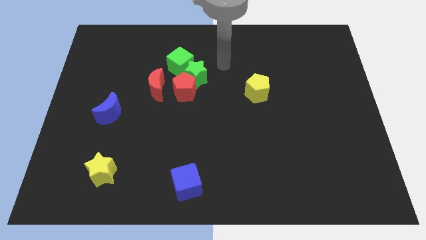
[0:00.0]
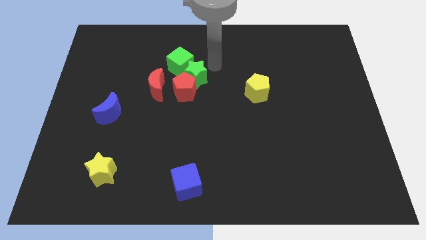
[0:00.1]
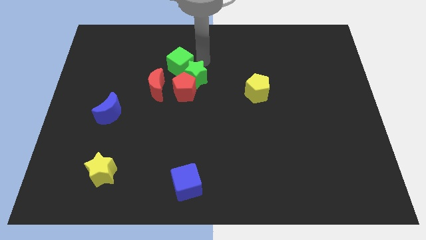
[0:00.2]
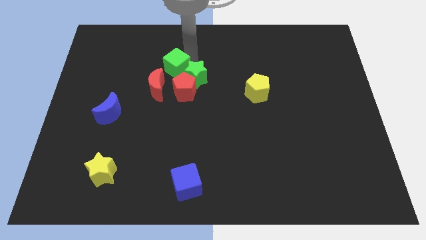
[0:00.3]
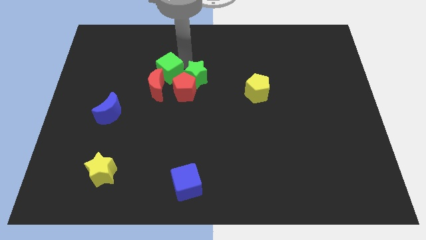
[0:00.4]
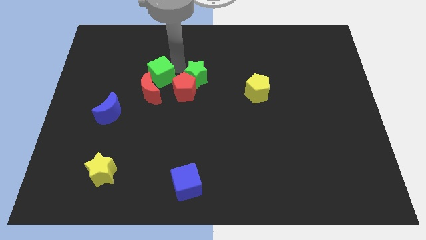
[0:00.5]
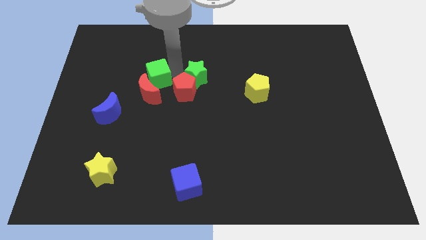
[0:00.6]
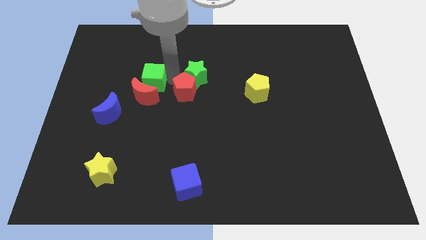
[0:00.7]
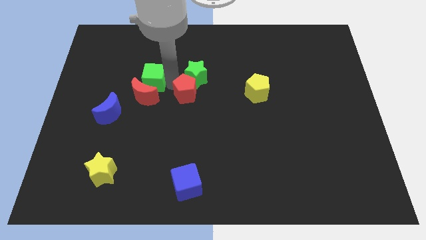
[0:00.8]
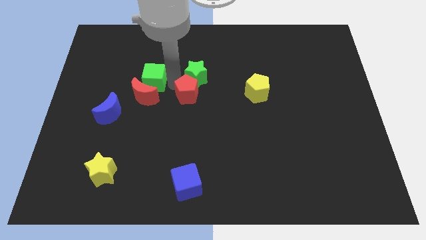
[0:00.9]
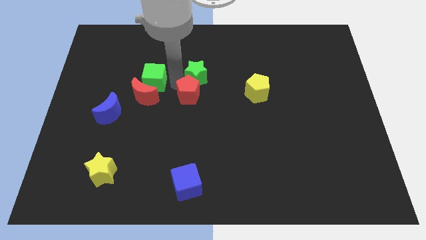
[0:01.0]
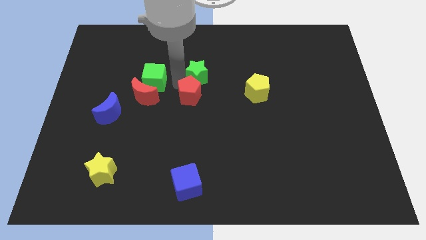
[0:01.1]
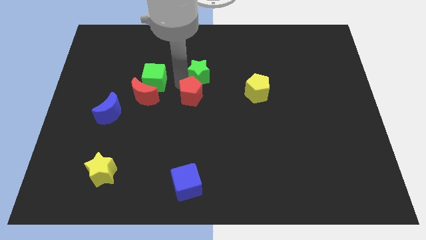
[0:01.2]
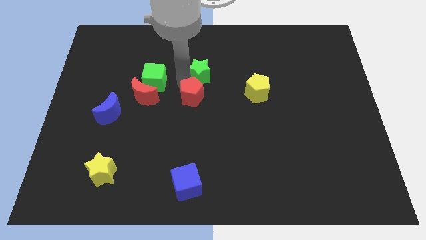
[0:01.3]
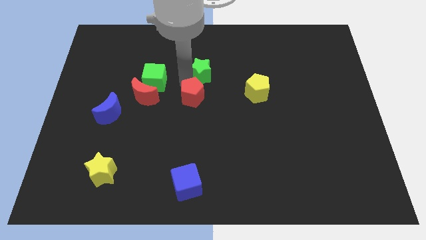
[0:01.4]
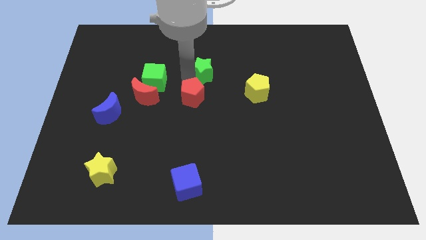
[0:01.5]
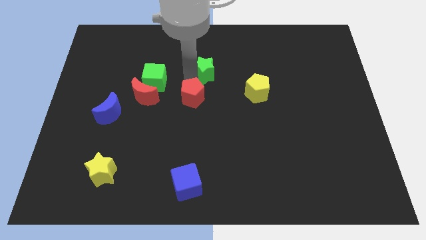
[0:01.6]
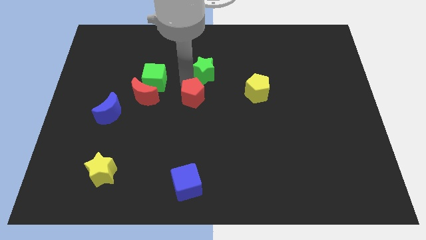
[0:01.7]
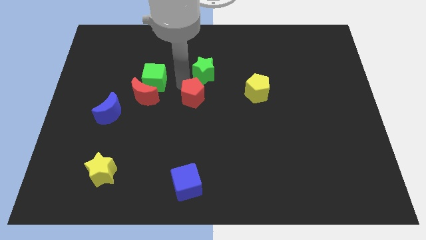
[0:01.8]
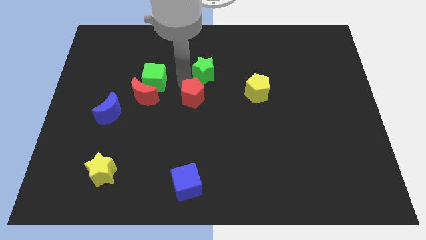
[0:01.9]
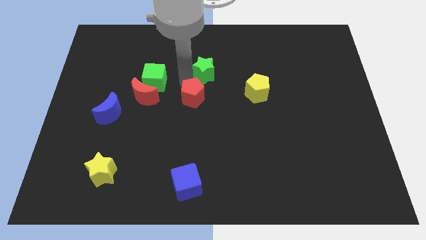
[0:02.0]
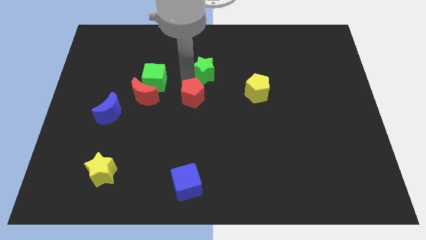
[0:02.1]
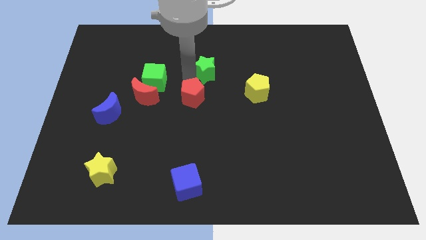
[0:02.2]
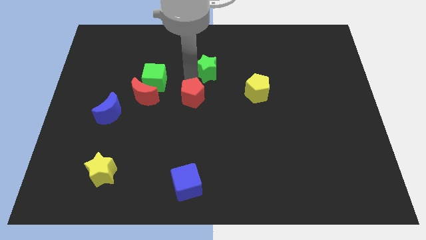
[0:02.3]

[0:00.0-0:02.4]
move the green star away from the red pentagon and green cube

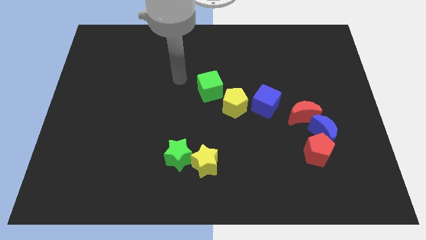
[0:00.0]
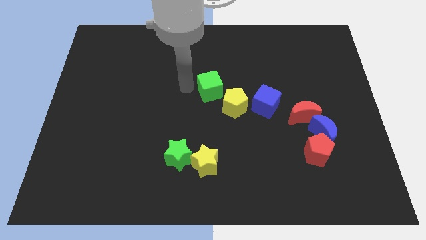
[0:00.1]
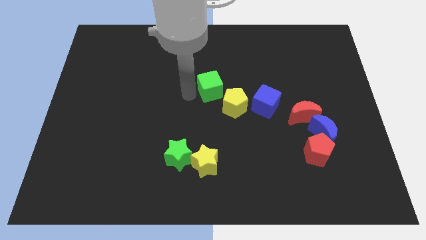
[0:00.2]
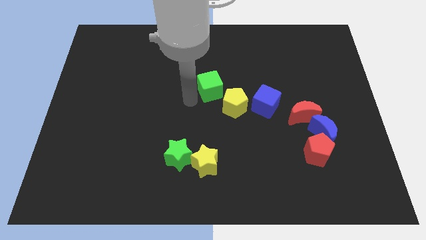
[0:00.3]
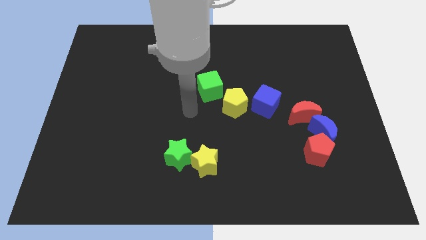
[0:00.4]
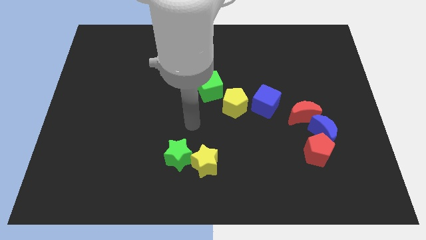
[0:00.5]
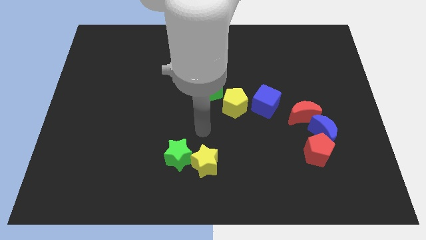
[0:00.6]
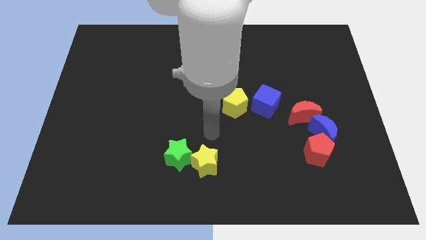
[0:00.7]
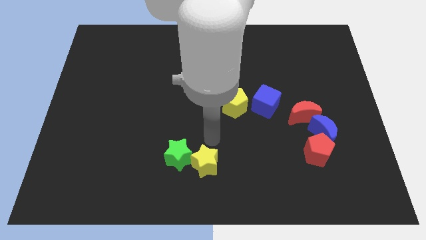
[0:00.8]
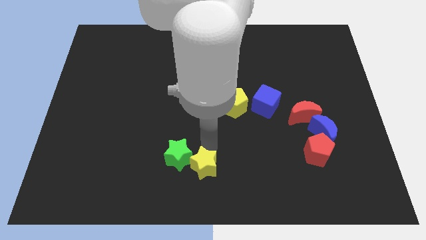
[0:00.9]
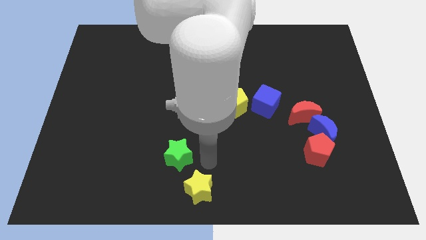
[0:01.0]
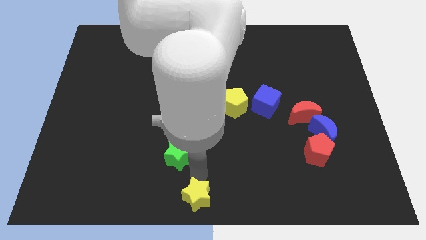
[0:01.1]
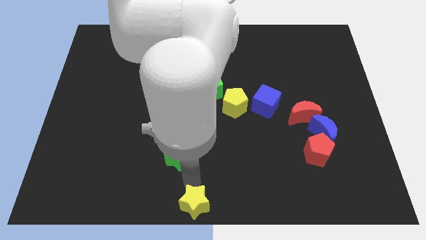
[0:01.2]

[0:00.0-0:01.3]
pull the green star apart from the yellow star

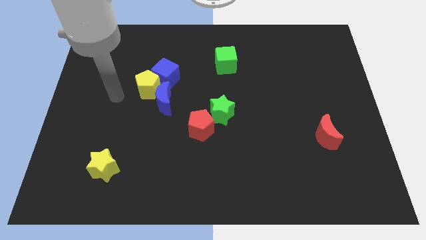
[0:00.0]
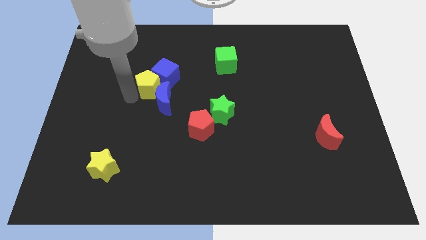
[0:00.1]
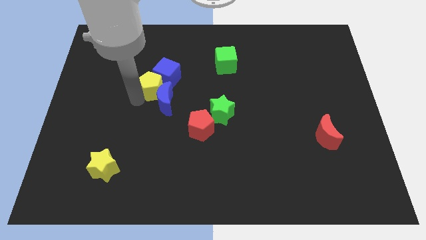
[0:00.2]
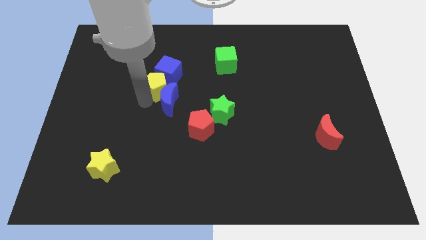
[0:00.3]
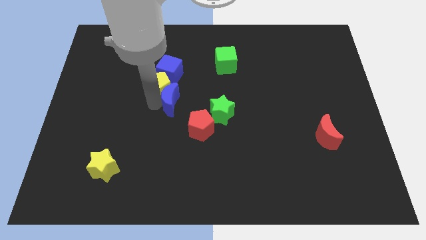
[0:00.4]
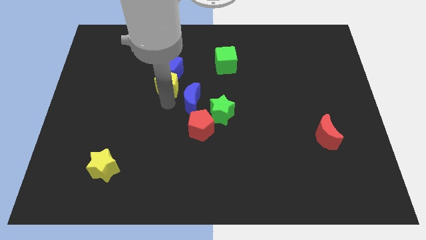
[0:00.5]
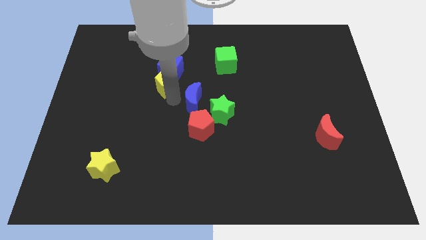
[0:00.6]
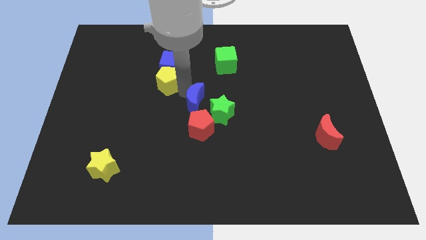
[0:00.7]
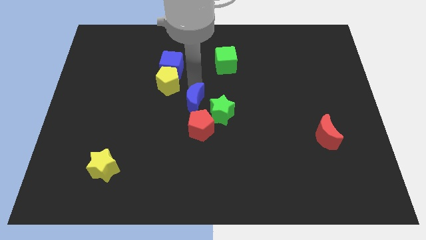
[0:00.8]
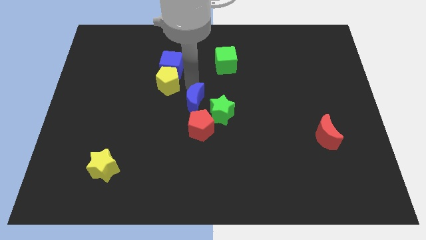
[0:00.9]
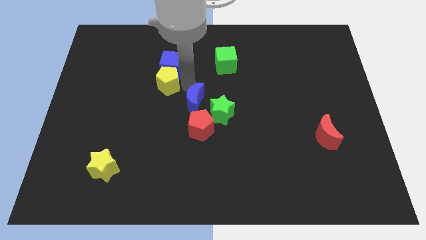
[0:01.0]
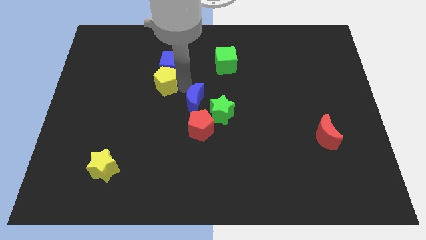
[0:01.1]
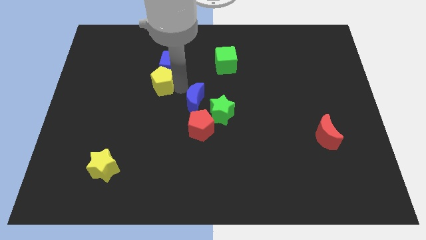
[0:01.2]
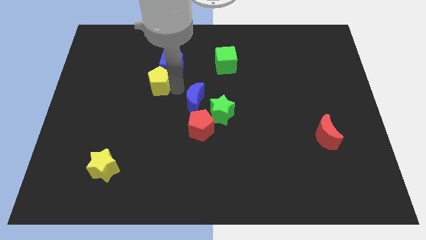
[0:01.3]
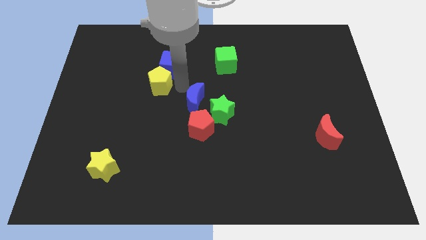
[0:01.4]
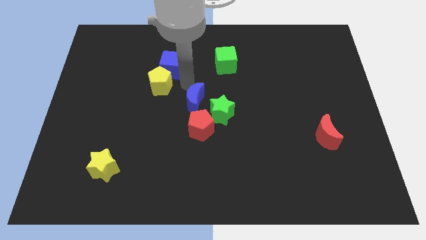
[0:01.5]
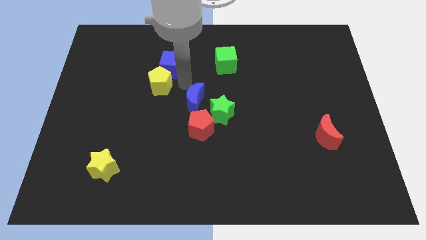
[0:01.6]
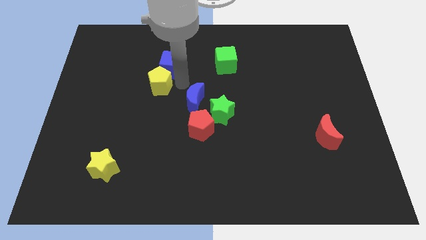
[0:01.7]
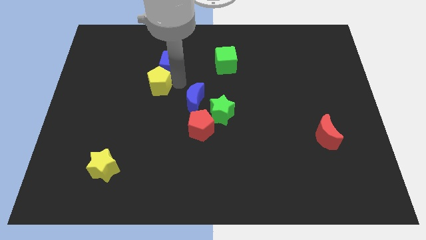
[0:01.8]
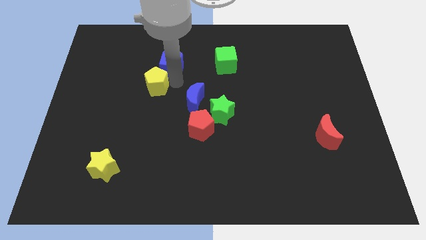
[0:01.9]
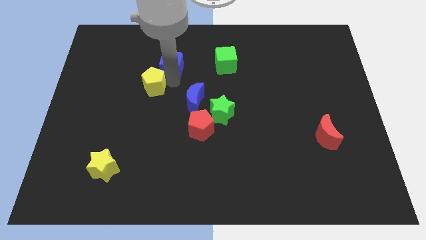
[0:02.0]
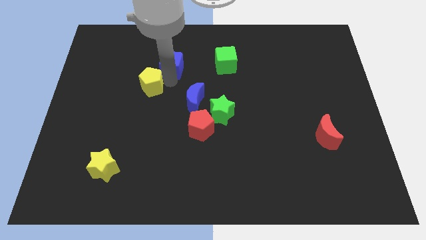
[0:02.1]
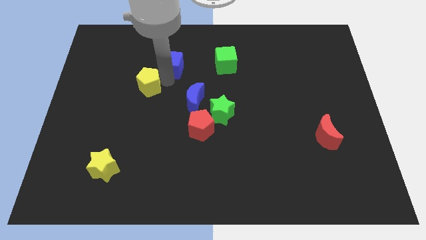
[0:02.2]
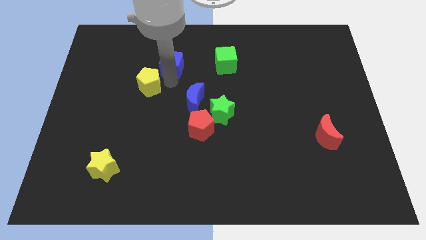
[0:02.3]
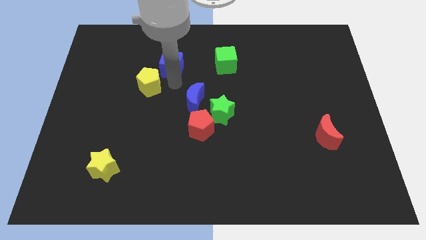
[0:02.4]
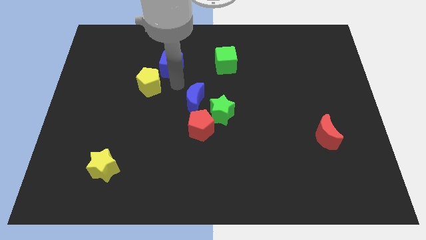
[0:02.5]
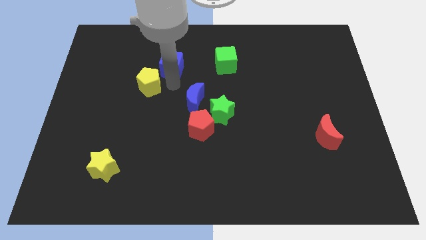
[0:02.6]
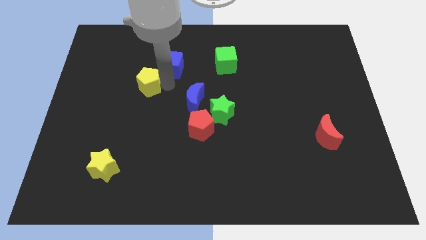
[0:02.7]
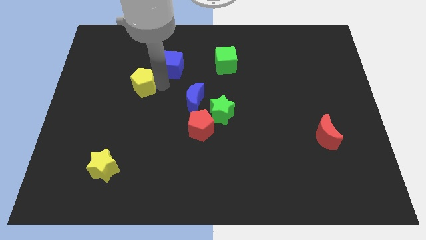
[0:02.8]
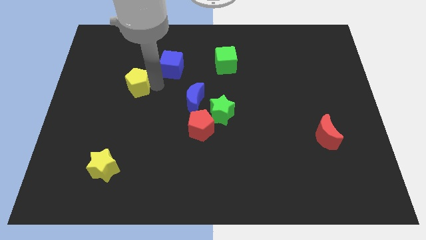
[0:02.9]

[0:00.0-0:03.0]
pull the yellow pentagon apart from the blue cube and blue moon

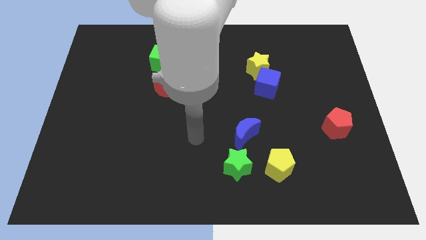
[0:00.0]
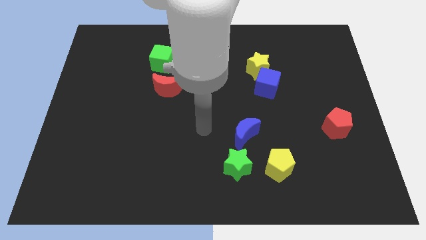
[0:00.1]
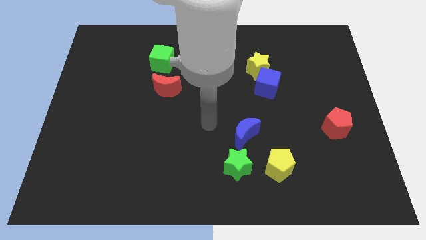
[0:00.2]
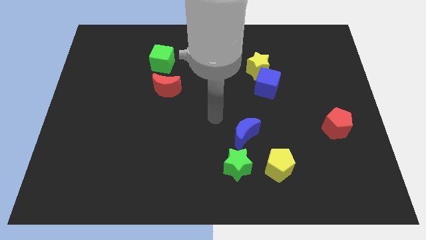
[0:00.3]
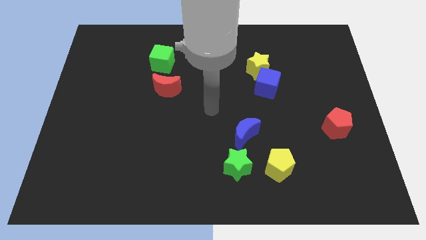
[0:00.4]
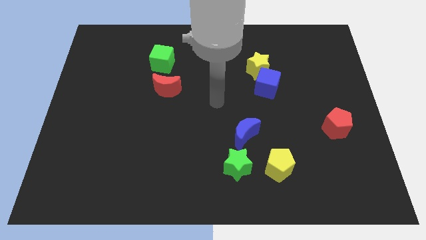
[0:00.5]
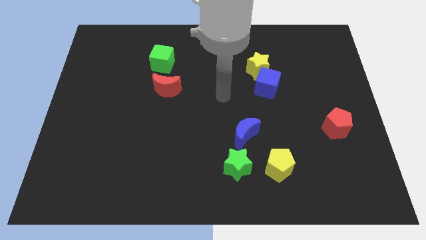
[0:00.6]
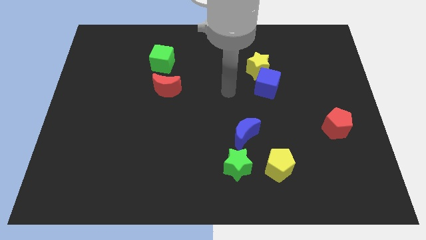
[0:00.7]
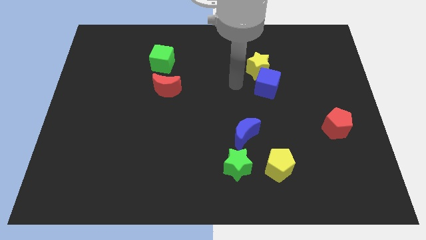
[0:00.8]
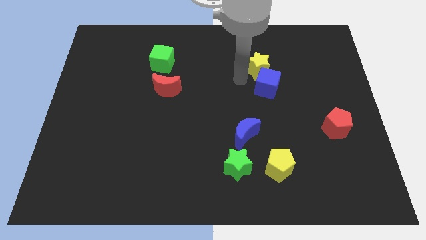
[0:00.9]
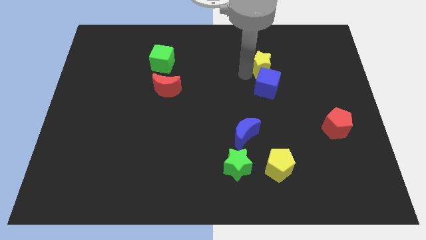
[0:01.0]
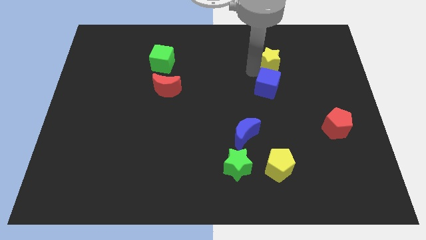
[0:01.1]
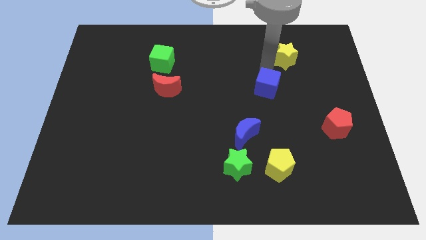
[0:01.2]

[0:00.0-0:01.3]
separate the blue cube from the yellow star

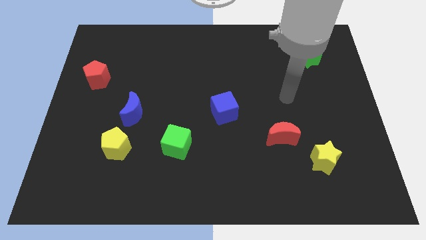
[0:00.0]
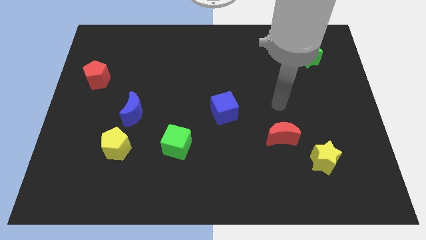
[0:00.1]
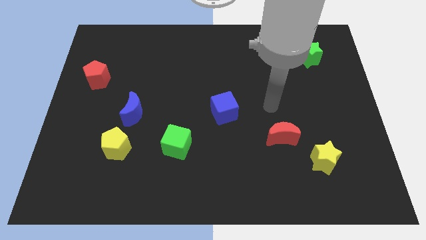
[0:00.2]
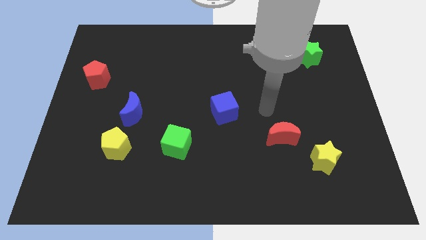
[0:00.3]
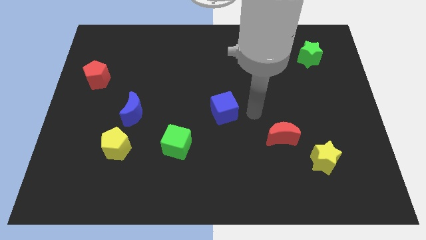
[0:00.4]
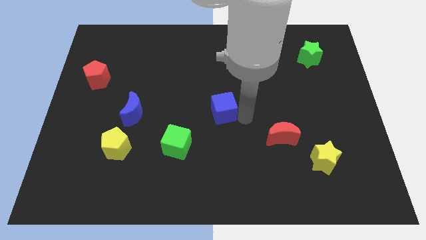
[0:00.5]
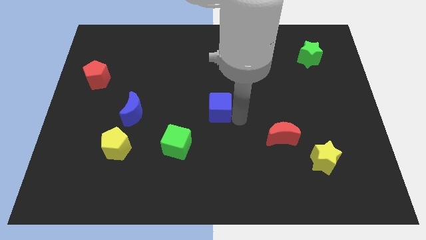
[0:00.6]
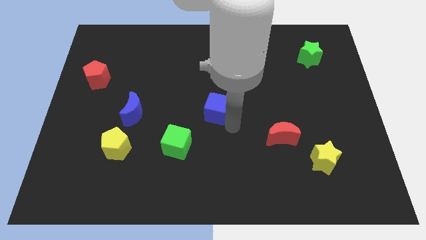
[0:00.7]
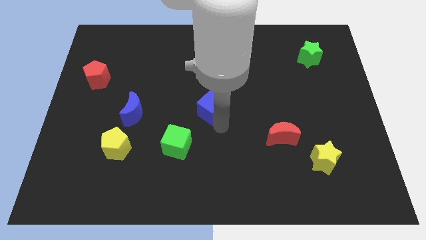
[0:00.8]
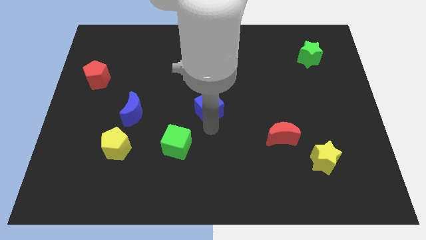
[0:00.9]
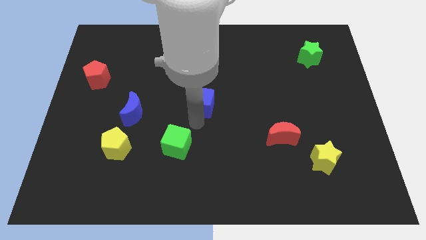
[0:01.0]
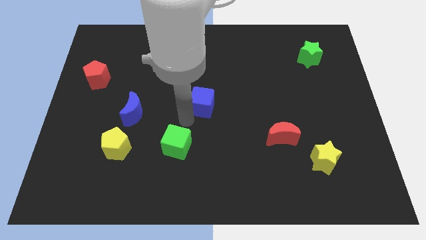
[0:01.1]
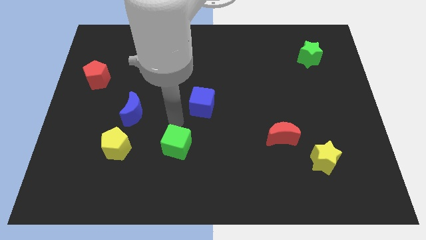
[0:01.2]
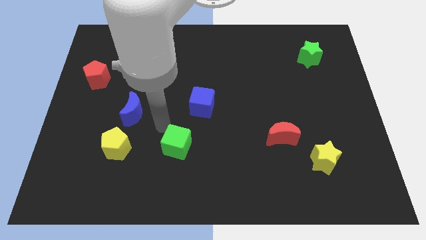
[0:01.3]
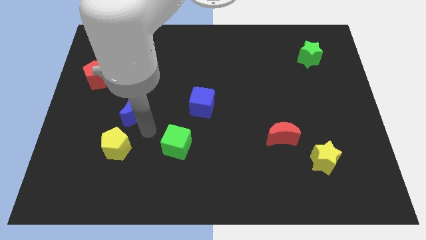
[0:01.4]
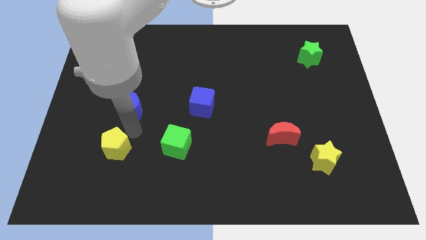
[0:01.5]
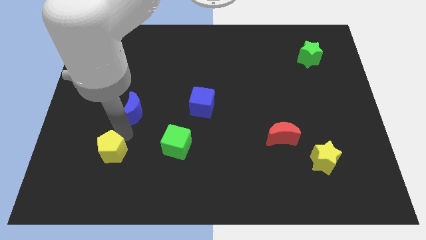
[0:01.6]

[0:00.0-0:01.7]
pull the blue moon apart from the yellow pentagon
